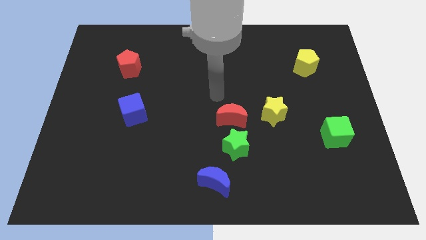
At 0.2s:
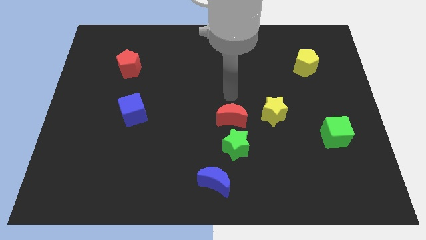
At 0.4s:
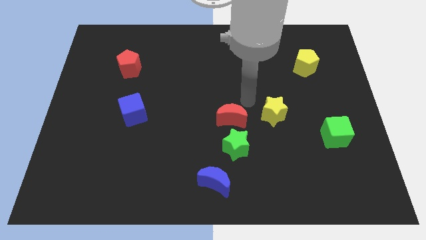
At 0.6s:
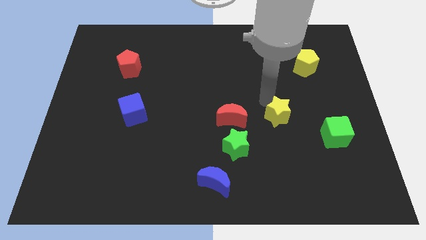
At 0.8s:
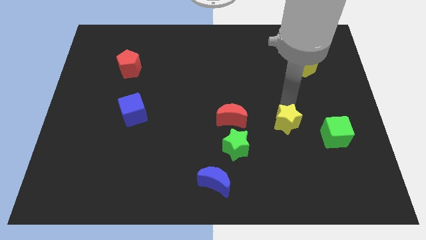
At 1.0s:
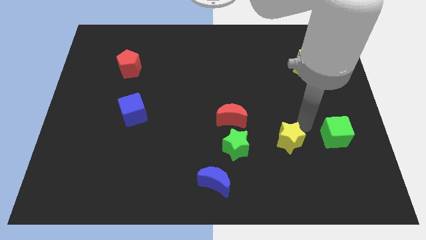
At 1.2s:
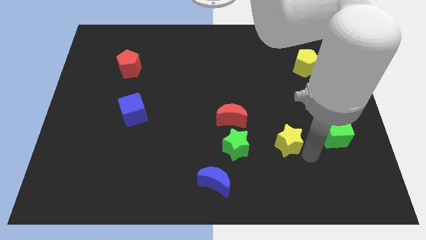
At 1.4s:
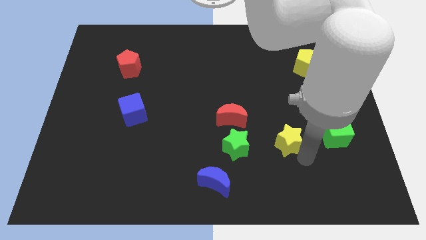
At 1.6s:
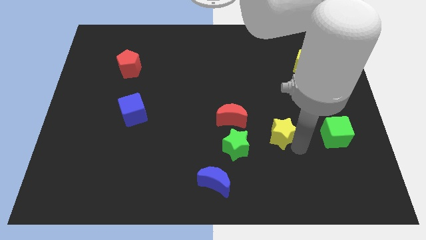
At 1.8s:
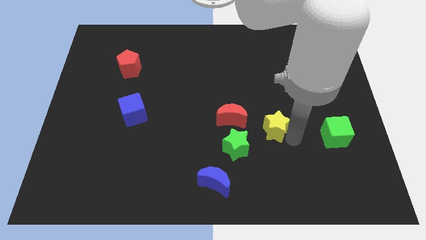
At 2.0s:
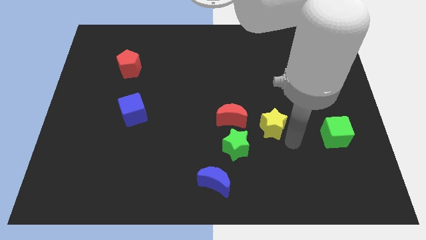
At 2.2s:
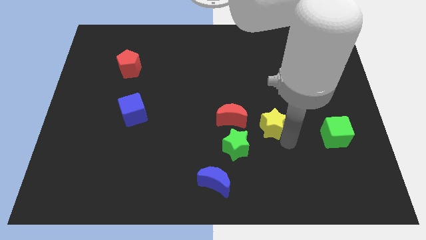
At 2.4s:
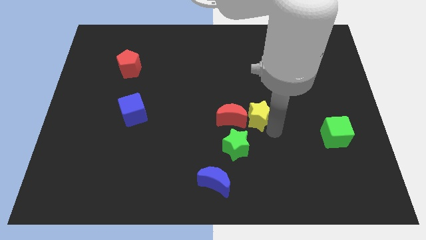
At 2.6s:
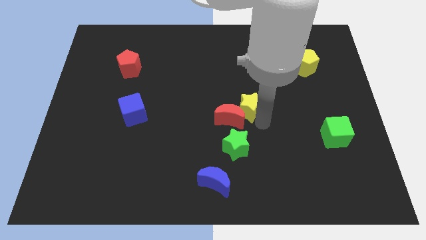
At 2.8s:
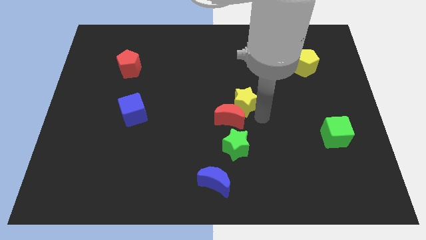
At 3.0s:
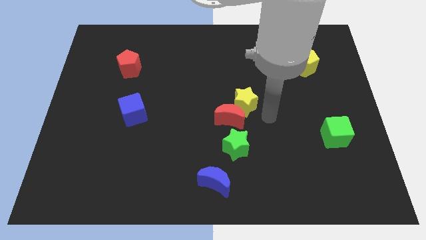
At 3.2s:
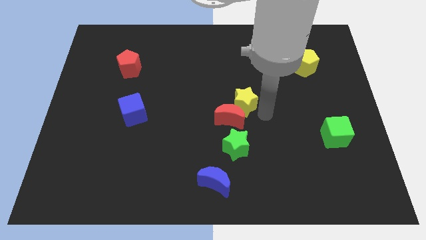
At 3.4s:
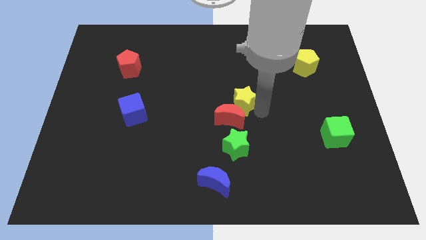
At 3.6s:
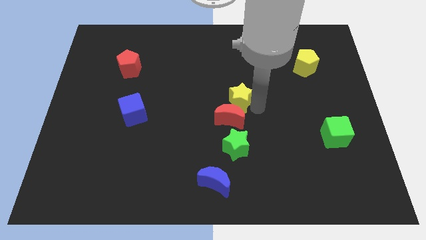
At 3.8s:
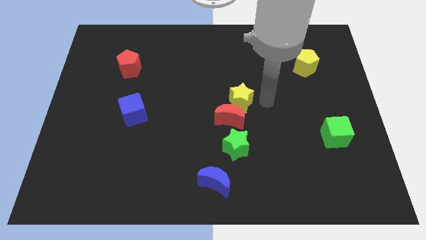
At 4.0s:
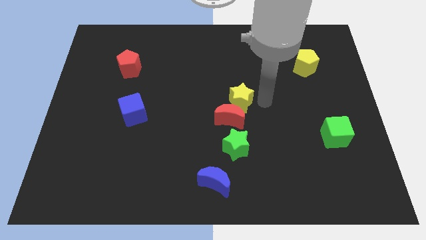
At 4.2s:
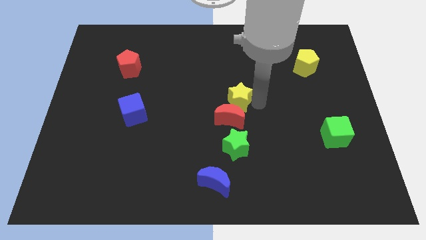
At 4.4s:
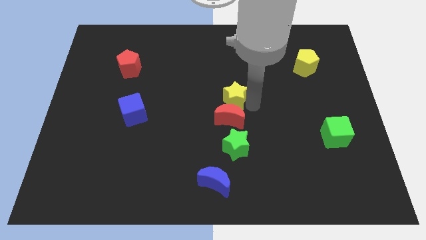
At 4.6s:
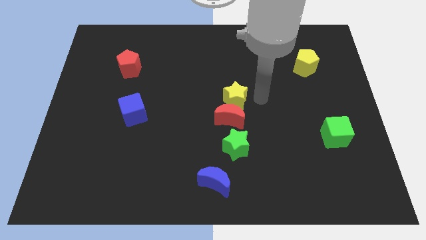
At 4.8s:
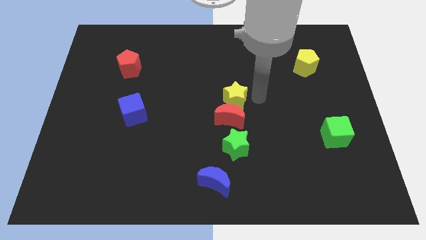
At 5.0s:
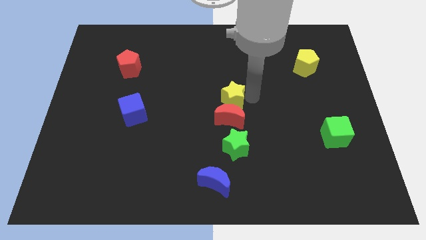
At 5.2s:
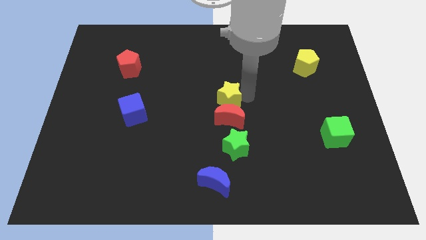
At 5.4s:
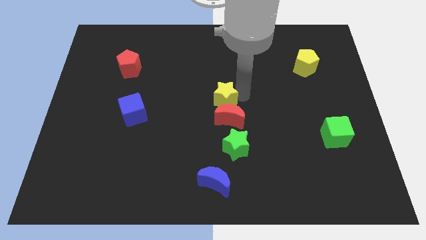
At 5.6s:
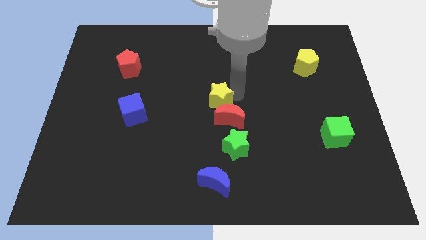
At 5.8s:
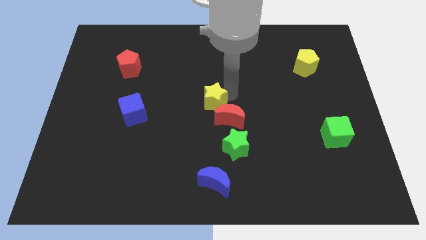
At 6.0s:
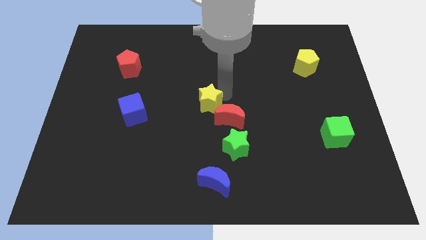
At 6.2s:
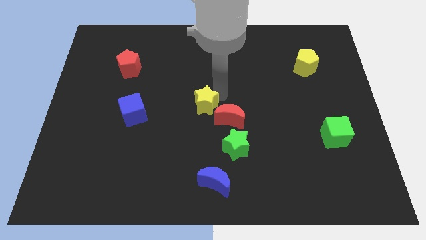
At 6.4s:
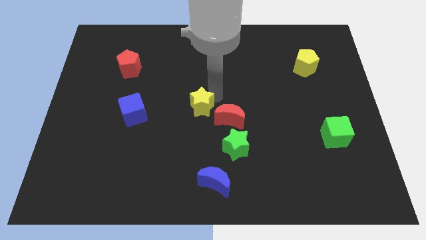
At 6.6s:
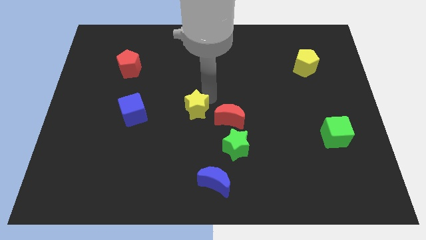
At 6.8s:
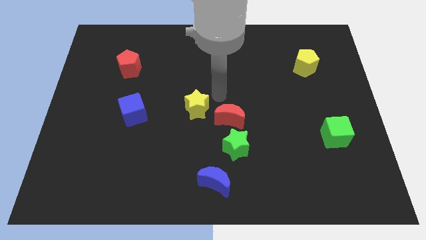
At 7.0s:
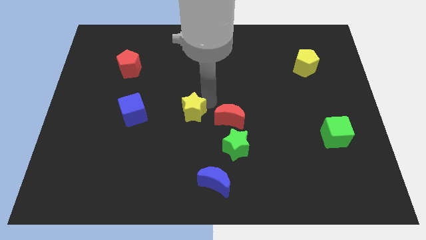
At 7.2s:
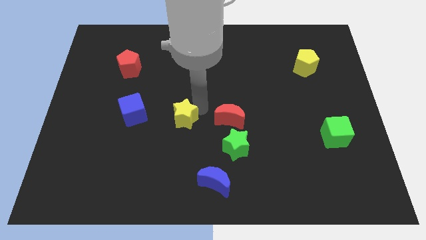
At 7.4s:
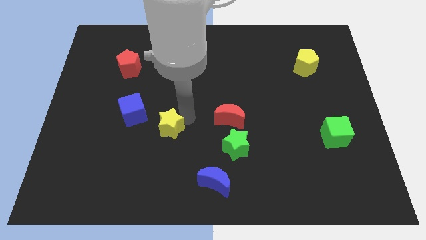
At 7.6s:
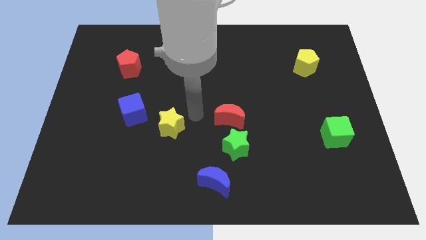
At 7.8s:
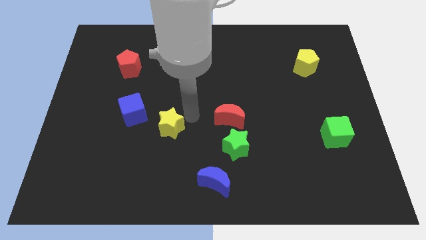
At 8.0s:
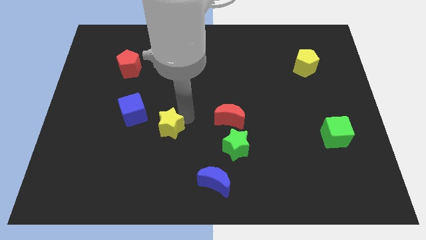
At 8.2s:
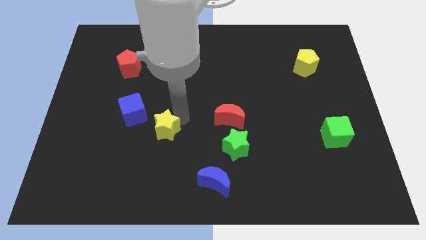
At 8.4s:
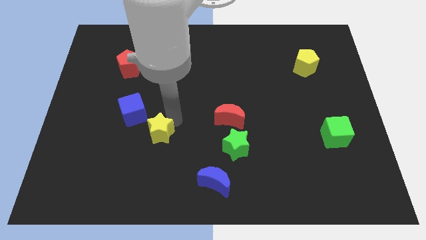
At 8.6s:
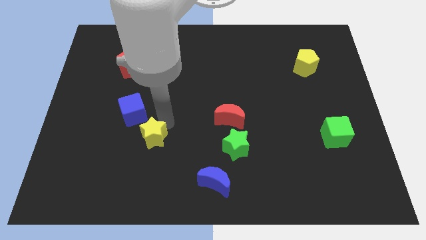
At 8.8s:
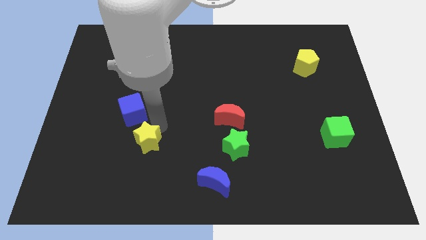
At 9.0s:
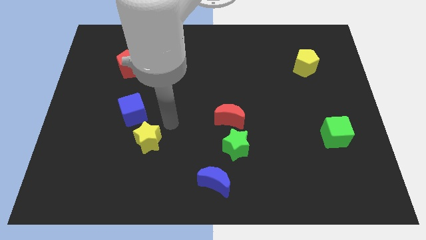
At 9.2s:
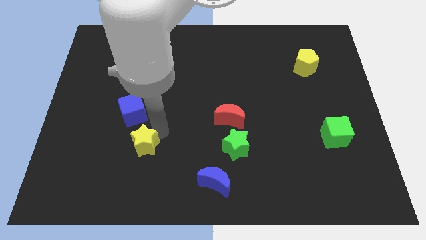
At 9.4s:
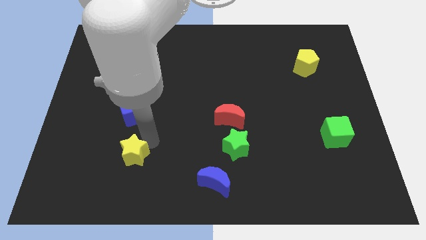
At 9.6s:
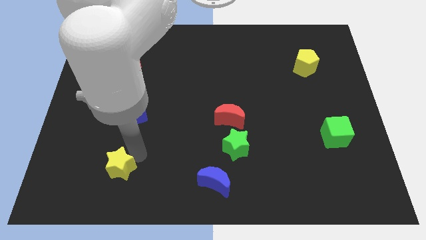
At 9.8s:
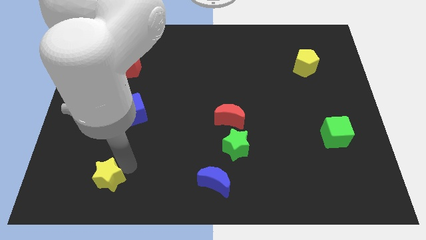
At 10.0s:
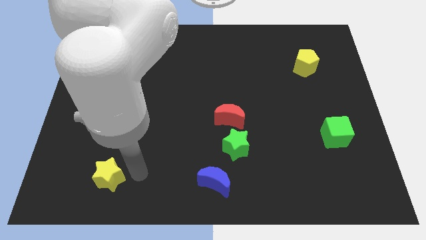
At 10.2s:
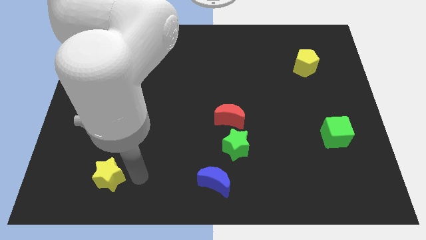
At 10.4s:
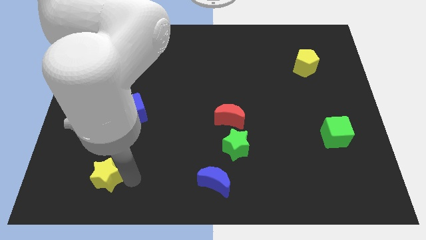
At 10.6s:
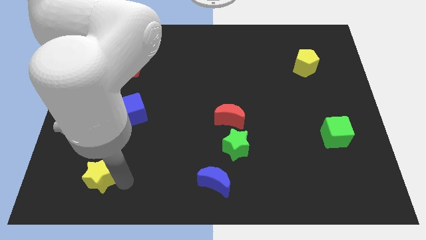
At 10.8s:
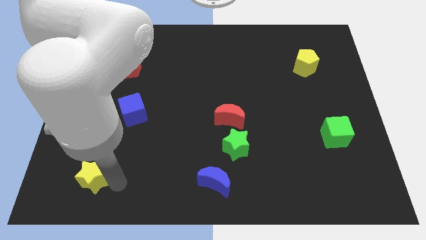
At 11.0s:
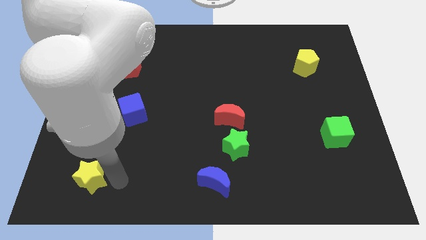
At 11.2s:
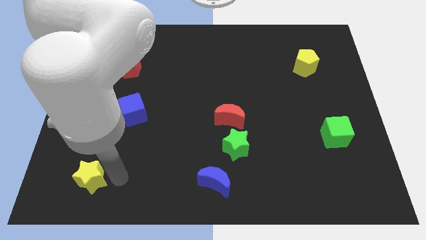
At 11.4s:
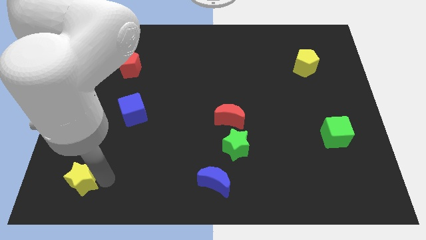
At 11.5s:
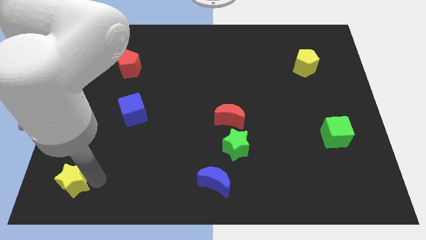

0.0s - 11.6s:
move the yellow star to the bottom left
